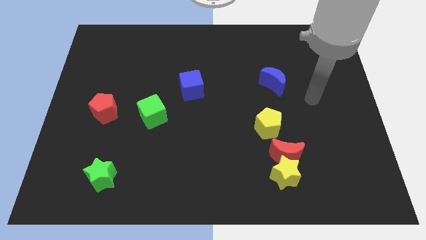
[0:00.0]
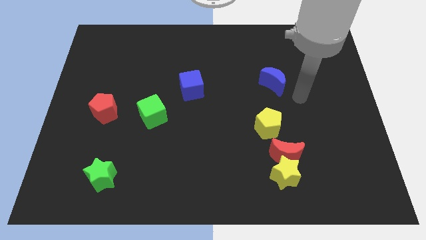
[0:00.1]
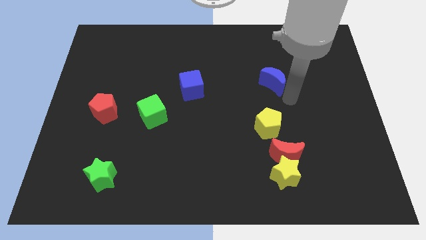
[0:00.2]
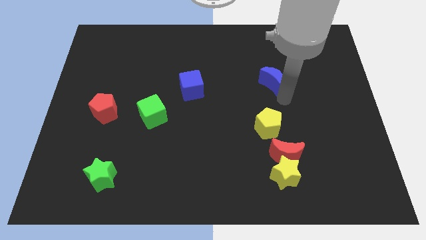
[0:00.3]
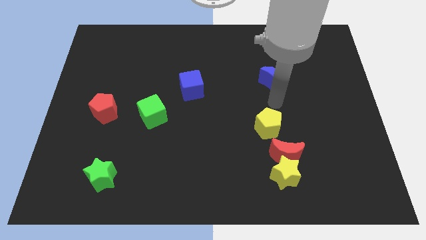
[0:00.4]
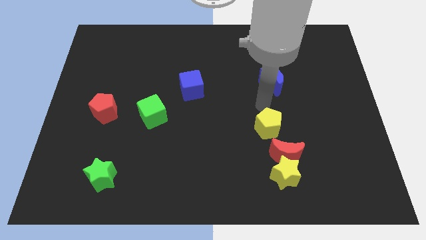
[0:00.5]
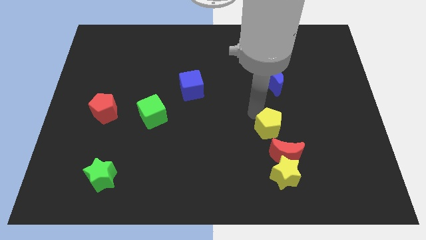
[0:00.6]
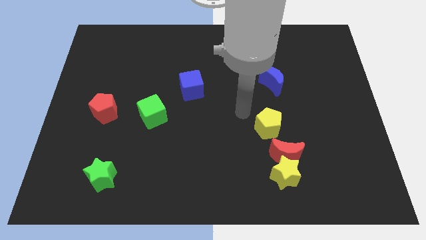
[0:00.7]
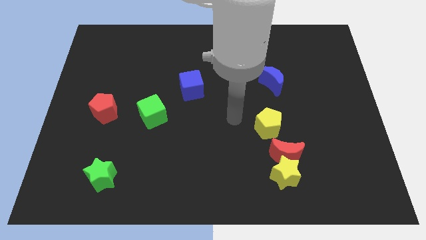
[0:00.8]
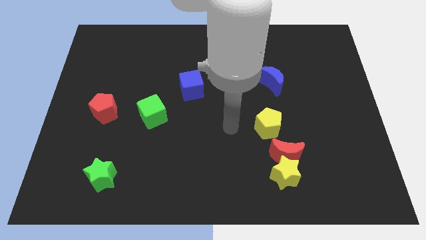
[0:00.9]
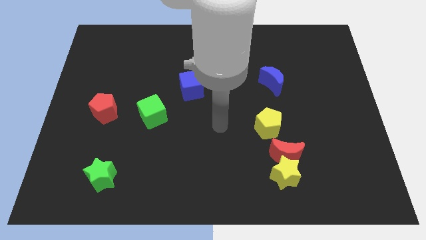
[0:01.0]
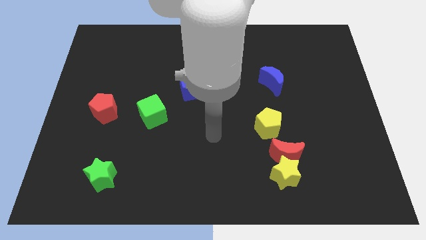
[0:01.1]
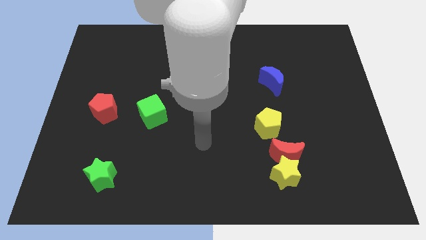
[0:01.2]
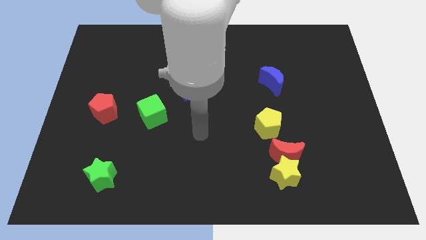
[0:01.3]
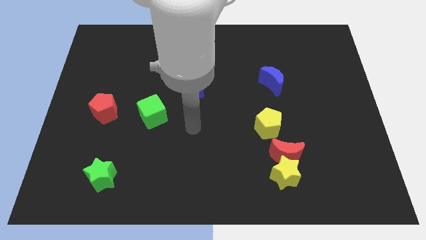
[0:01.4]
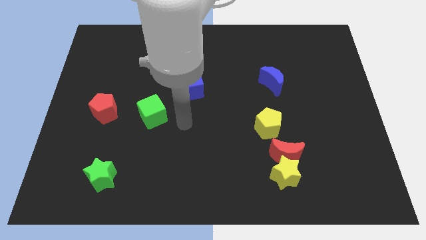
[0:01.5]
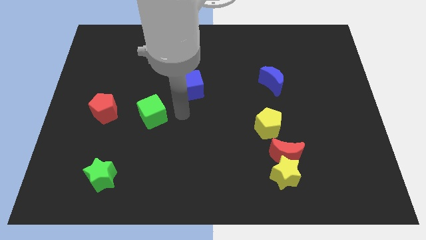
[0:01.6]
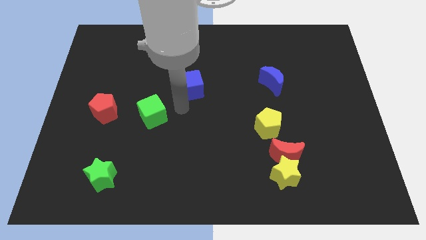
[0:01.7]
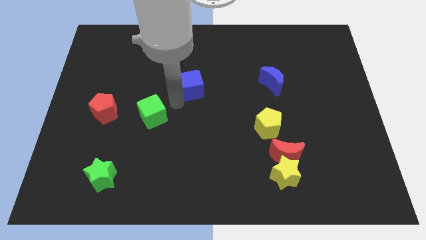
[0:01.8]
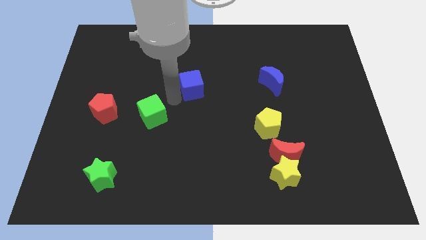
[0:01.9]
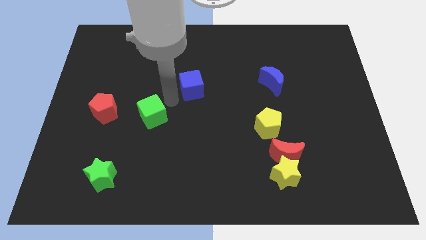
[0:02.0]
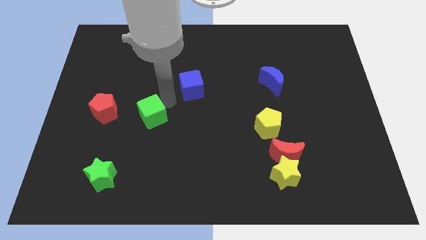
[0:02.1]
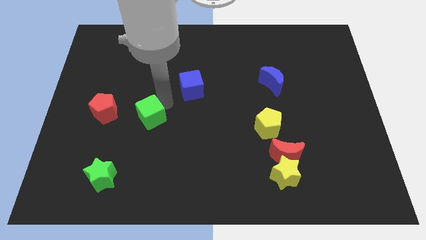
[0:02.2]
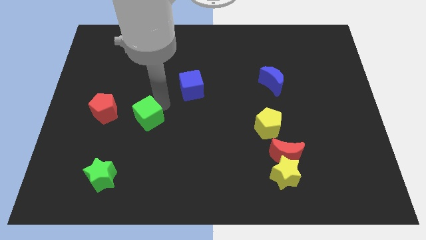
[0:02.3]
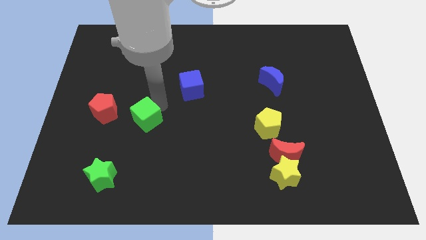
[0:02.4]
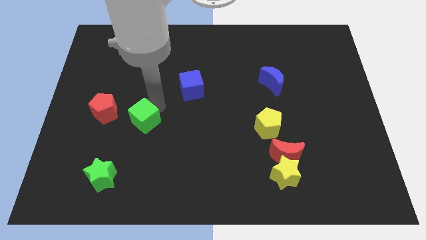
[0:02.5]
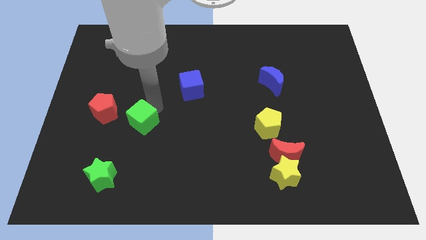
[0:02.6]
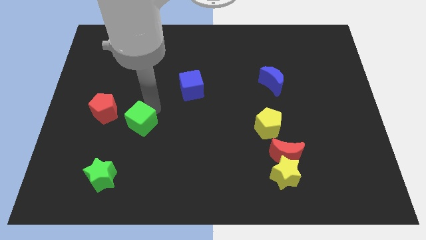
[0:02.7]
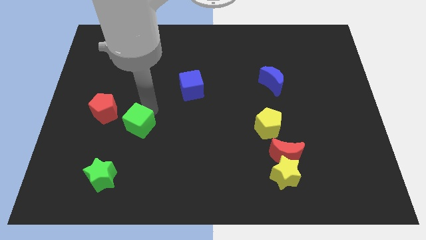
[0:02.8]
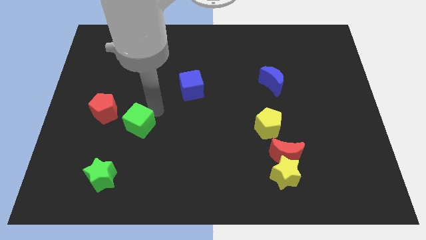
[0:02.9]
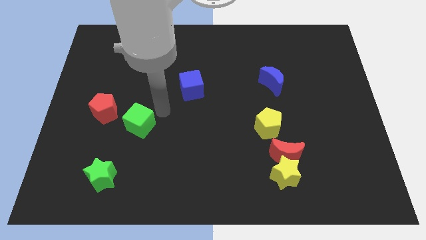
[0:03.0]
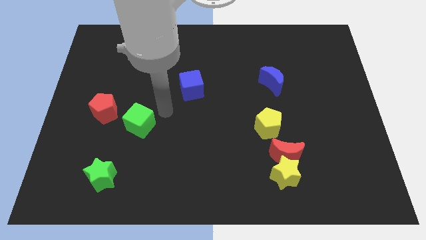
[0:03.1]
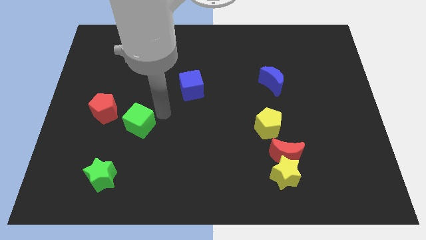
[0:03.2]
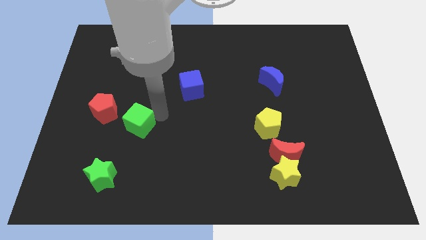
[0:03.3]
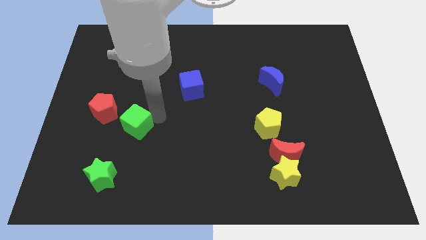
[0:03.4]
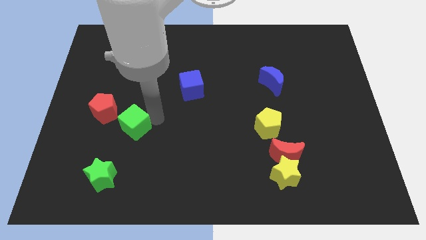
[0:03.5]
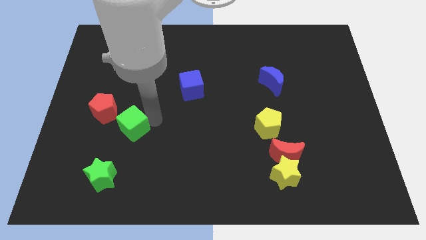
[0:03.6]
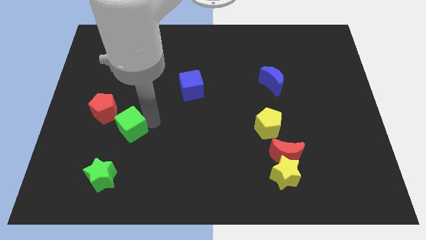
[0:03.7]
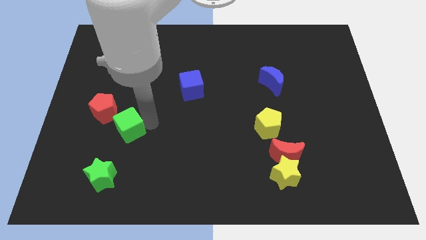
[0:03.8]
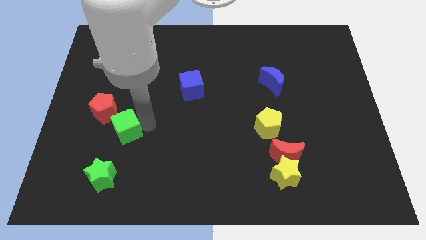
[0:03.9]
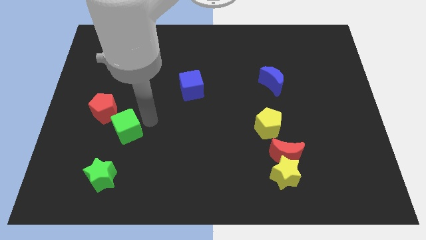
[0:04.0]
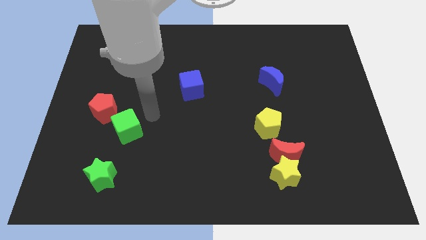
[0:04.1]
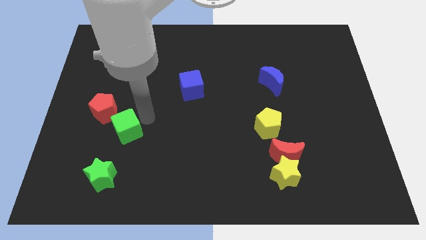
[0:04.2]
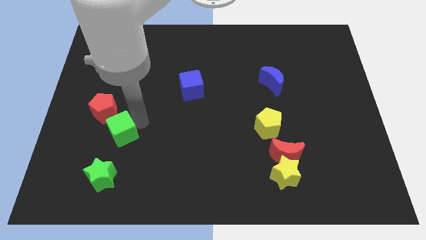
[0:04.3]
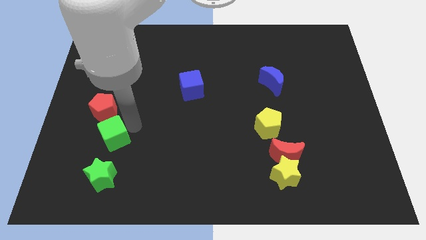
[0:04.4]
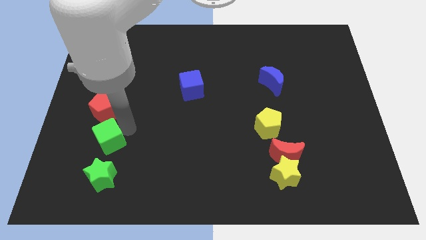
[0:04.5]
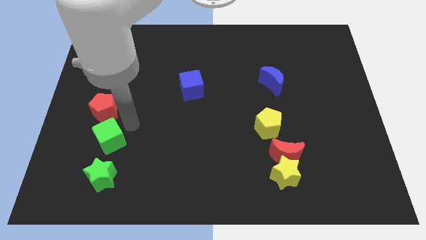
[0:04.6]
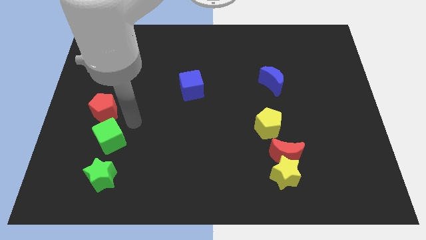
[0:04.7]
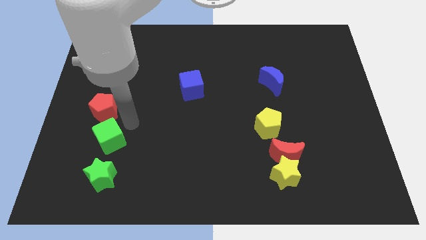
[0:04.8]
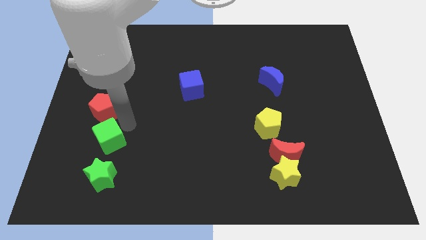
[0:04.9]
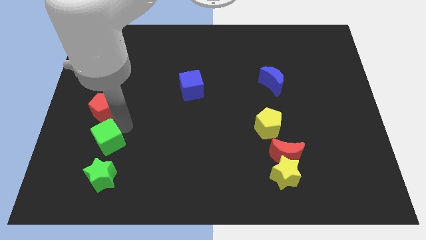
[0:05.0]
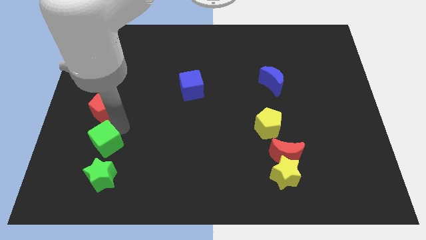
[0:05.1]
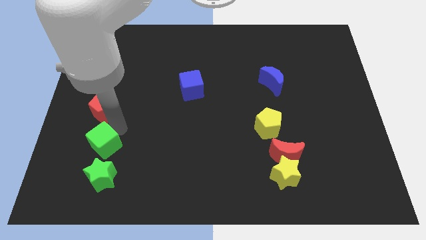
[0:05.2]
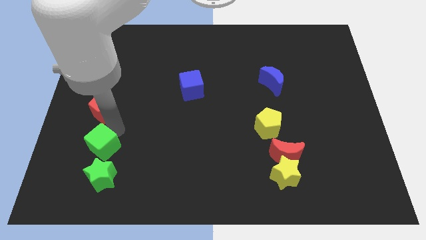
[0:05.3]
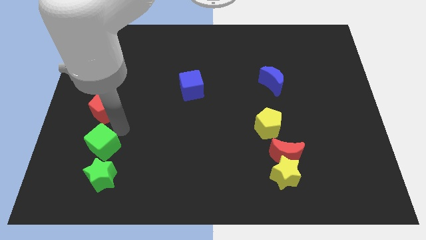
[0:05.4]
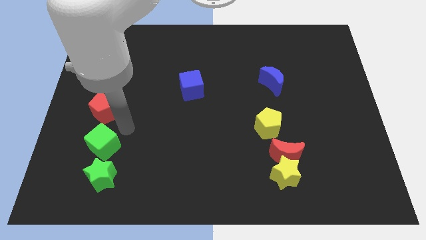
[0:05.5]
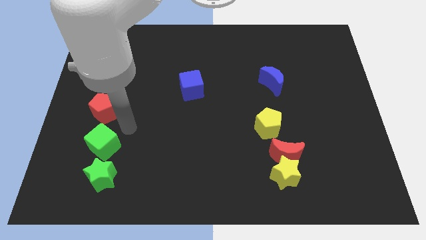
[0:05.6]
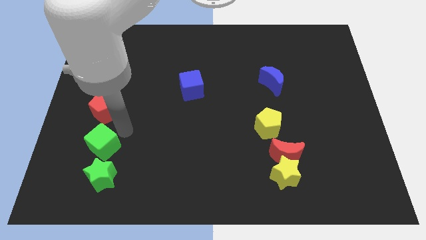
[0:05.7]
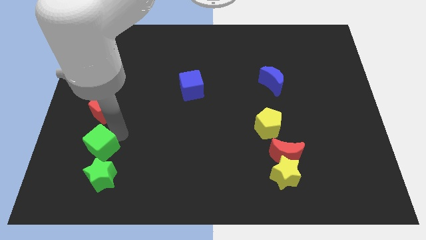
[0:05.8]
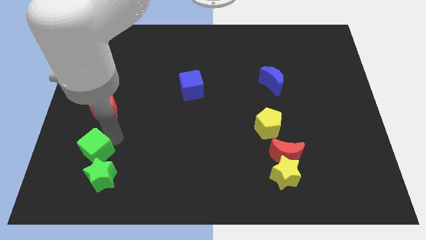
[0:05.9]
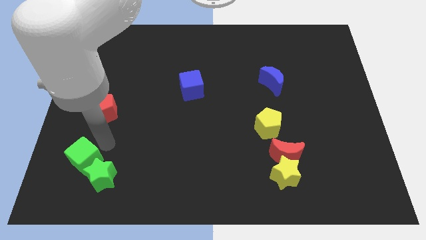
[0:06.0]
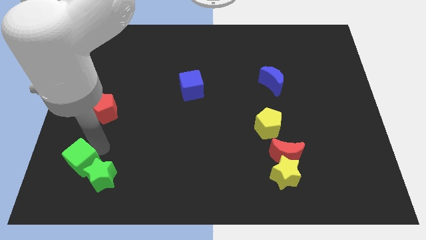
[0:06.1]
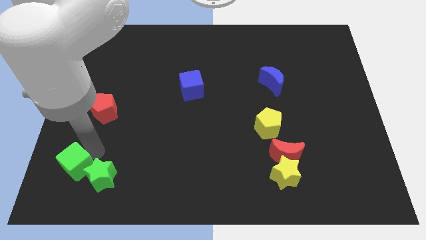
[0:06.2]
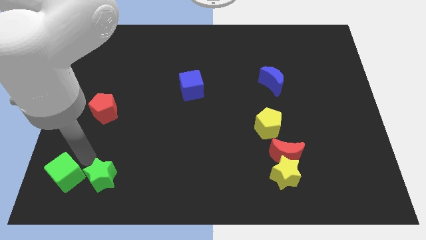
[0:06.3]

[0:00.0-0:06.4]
slide the green cube to the bottom left corner
